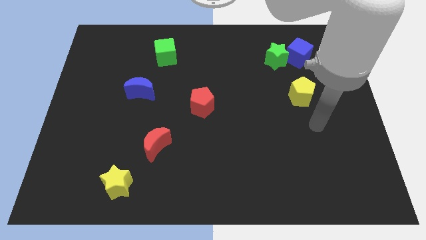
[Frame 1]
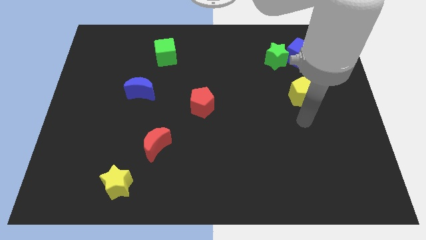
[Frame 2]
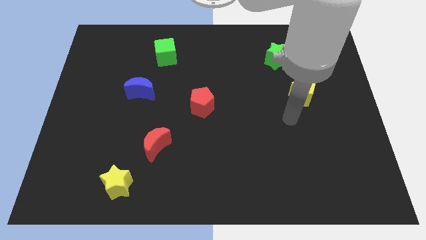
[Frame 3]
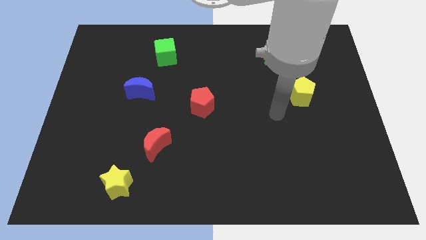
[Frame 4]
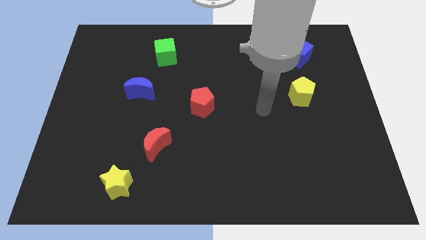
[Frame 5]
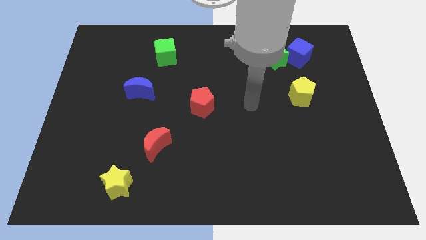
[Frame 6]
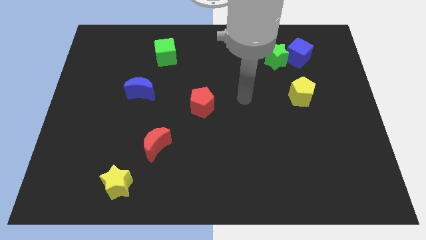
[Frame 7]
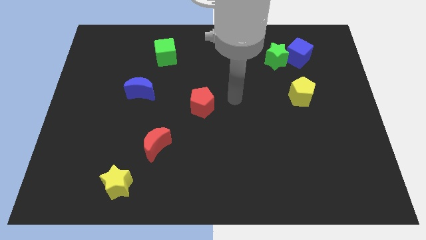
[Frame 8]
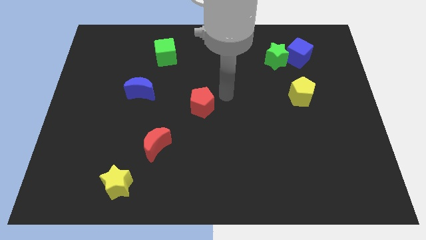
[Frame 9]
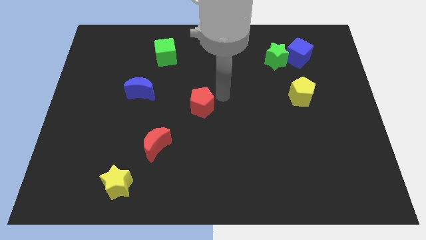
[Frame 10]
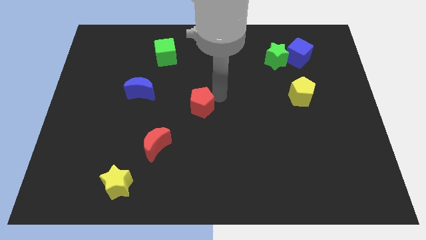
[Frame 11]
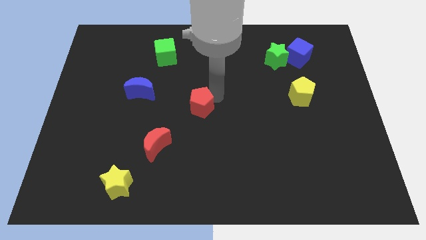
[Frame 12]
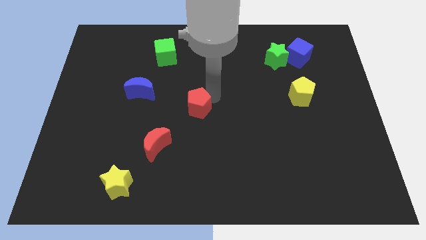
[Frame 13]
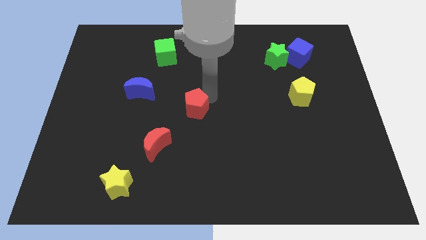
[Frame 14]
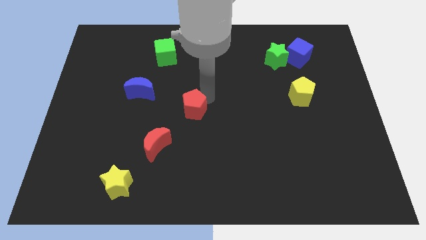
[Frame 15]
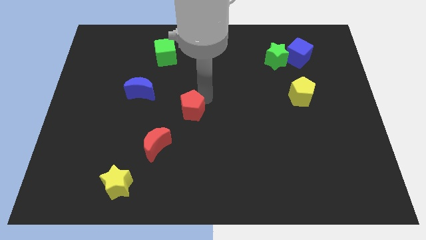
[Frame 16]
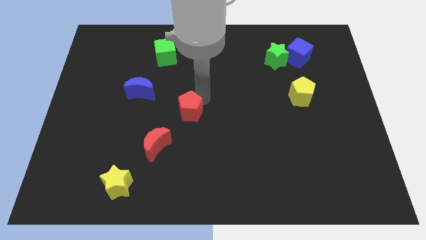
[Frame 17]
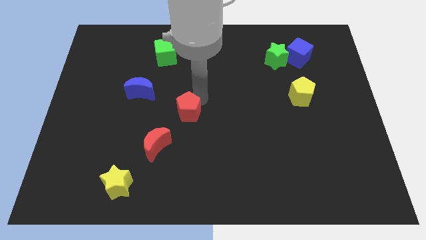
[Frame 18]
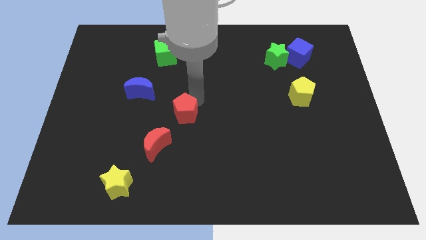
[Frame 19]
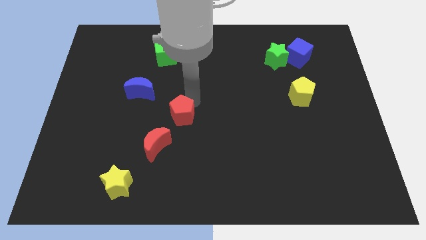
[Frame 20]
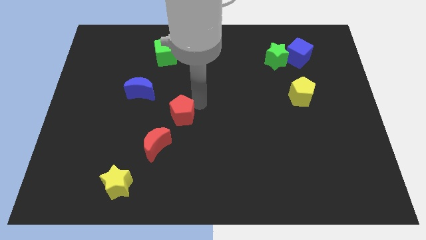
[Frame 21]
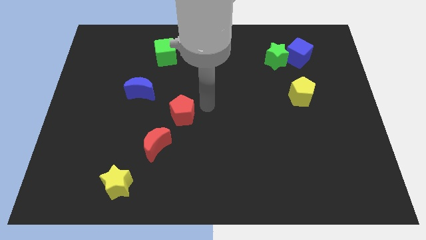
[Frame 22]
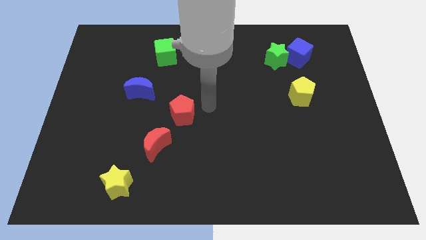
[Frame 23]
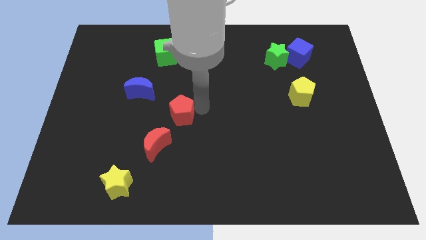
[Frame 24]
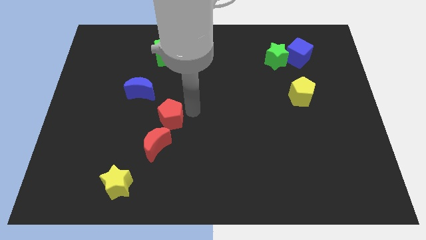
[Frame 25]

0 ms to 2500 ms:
slide the red pentagon a little bit downwards and then left

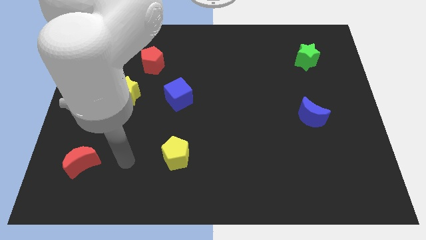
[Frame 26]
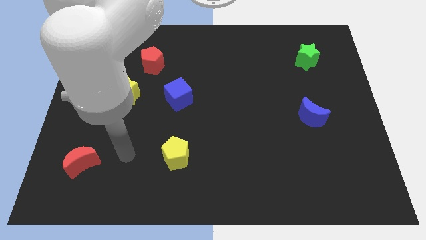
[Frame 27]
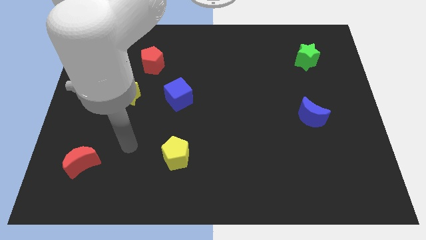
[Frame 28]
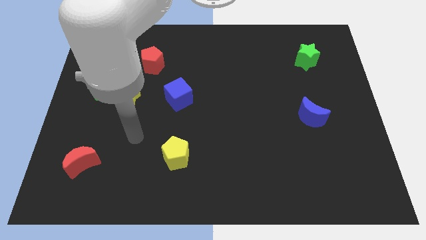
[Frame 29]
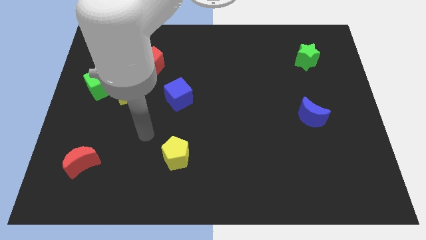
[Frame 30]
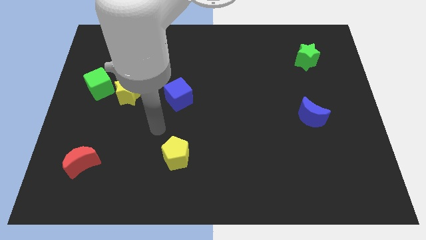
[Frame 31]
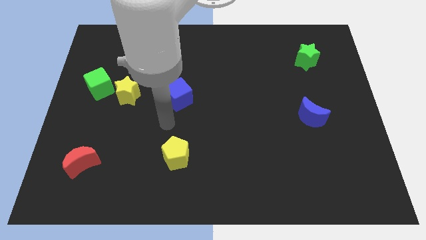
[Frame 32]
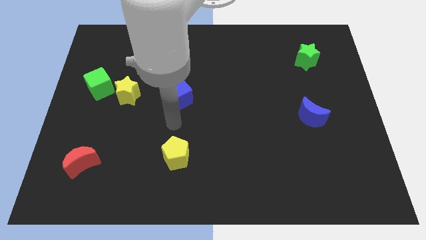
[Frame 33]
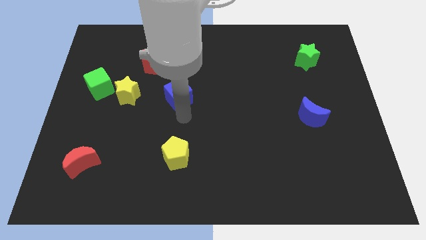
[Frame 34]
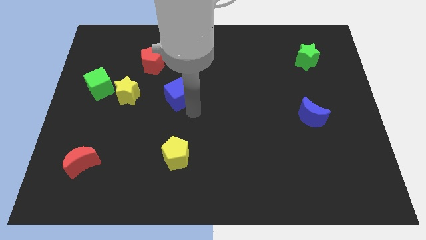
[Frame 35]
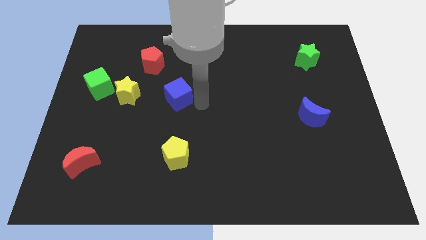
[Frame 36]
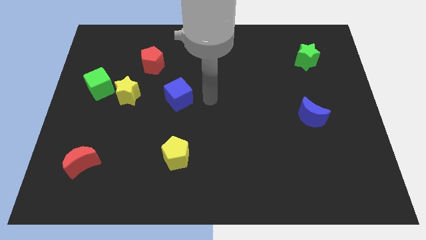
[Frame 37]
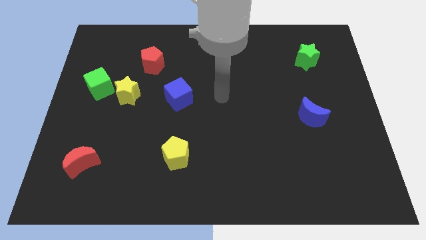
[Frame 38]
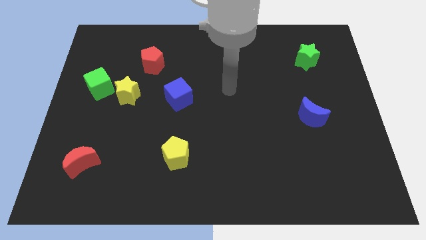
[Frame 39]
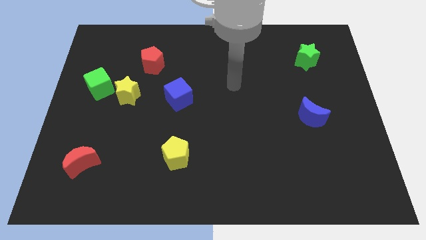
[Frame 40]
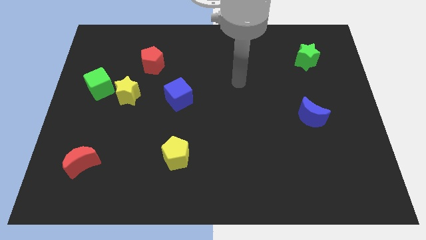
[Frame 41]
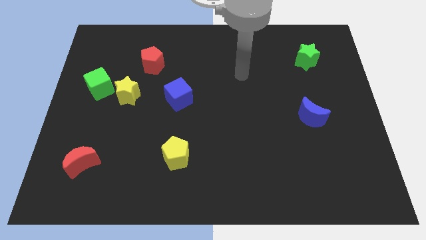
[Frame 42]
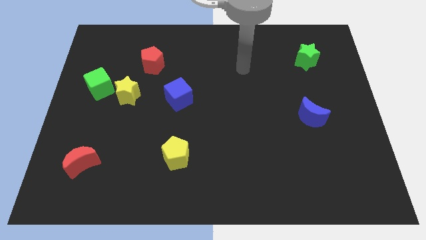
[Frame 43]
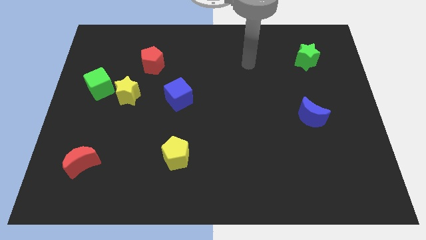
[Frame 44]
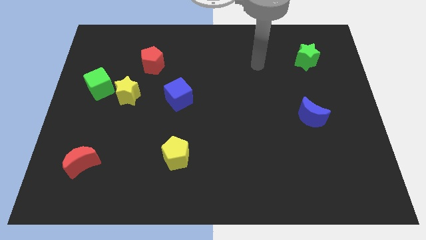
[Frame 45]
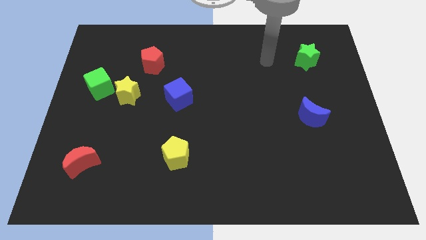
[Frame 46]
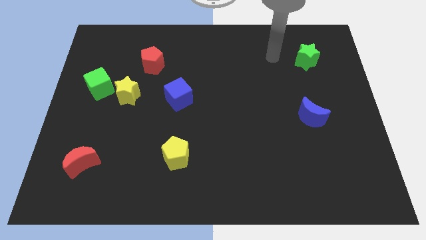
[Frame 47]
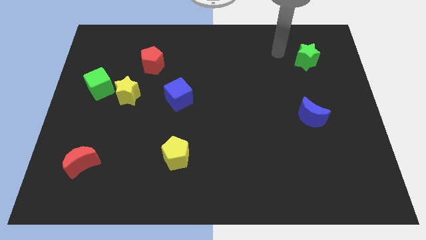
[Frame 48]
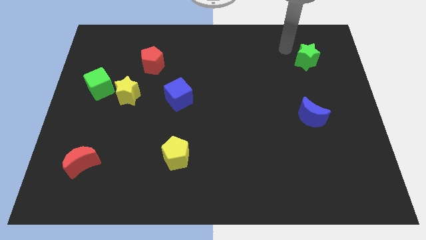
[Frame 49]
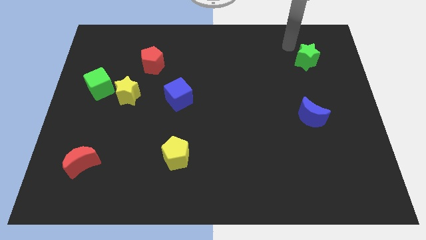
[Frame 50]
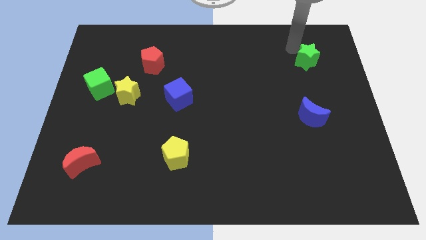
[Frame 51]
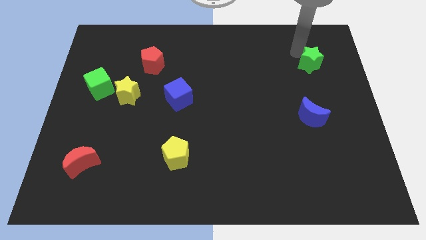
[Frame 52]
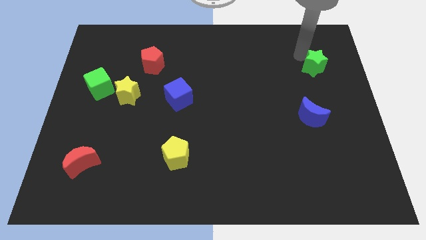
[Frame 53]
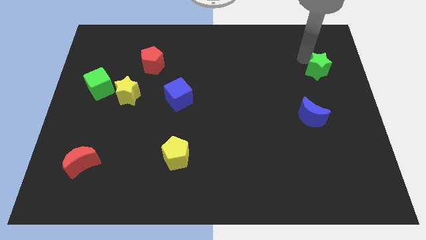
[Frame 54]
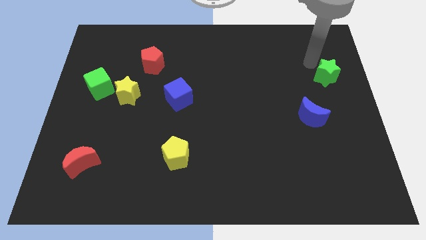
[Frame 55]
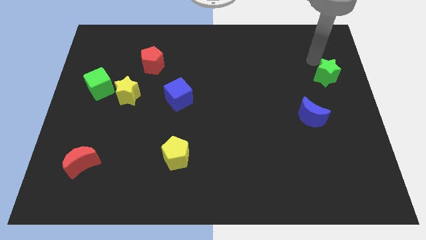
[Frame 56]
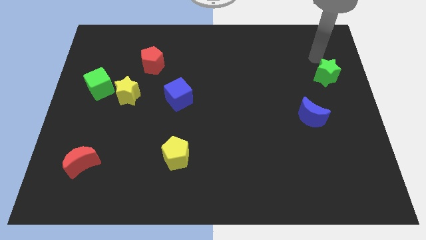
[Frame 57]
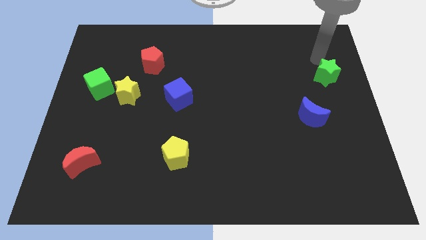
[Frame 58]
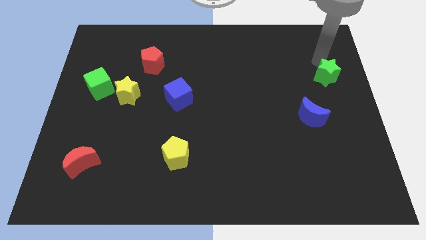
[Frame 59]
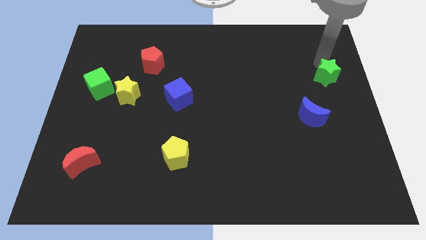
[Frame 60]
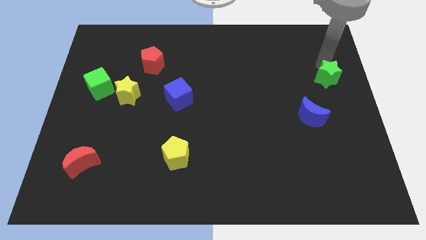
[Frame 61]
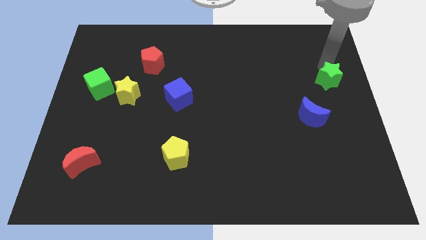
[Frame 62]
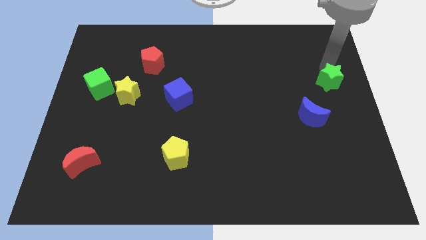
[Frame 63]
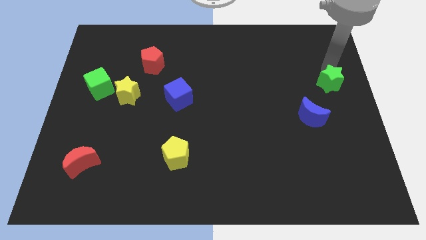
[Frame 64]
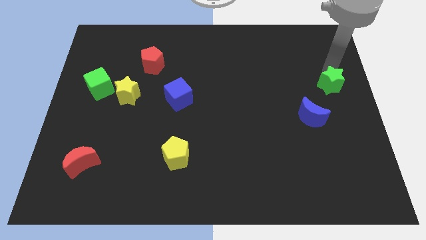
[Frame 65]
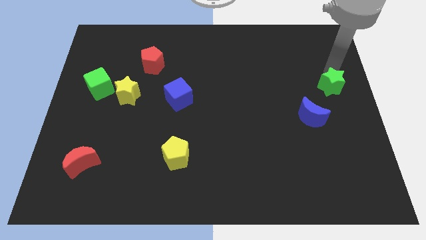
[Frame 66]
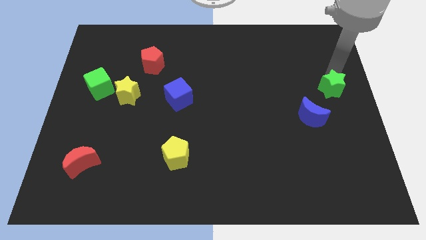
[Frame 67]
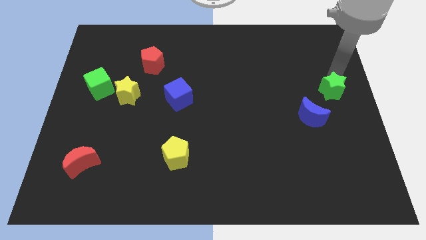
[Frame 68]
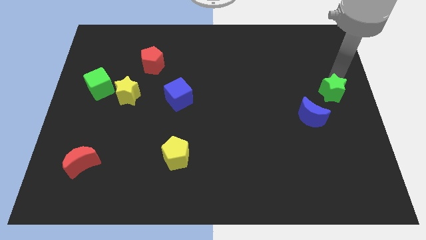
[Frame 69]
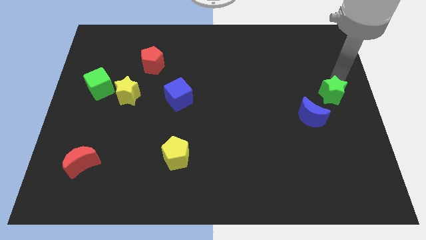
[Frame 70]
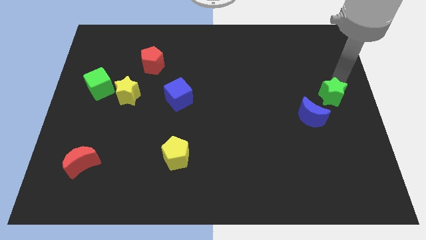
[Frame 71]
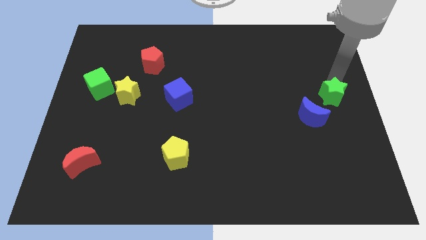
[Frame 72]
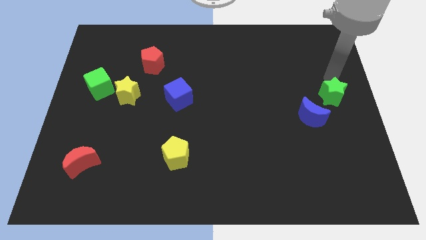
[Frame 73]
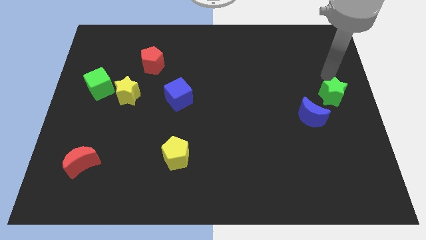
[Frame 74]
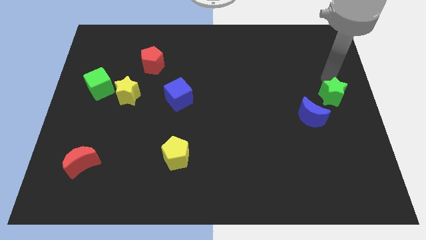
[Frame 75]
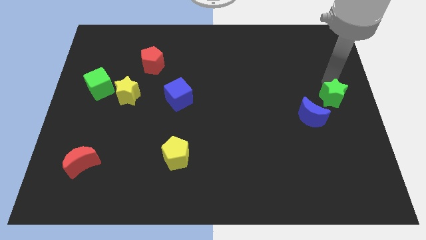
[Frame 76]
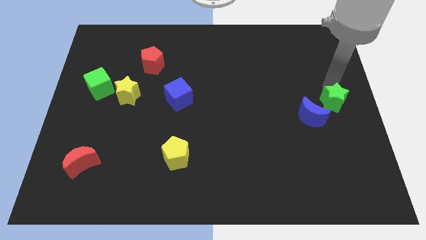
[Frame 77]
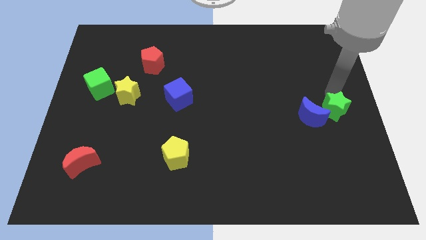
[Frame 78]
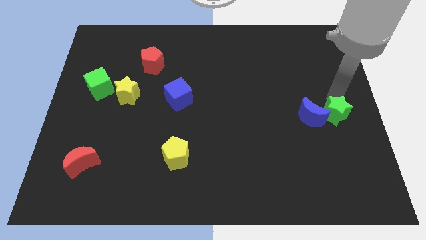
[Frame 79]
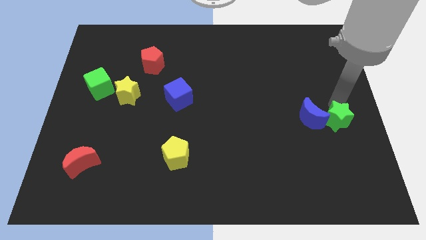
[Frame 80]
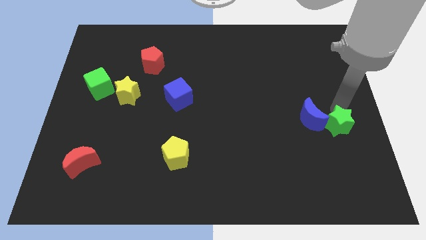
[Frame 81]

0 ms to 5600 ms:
move the green star downwards

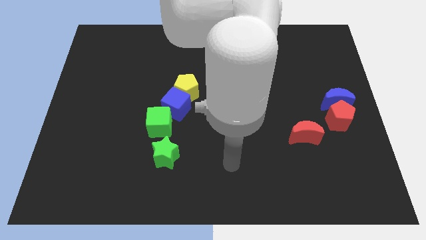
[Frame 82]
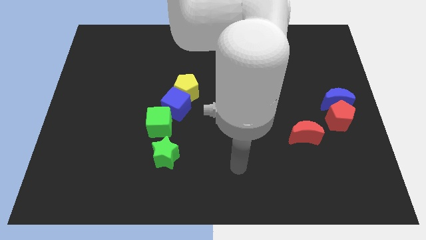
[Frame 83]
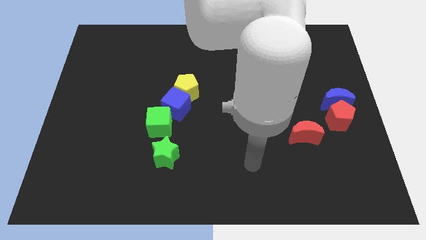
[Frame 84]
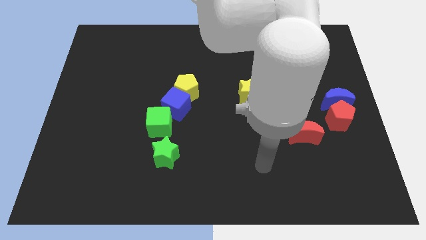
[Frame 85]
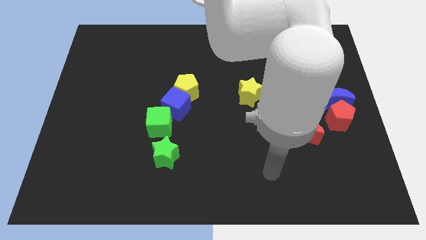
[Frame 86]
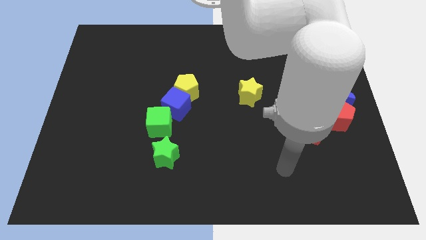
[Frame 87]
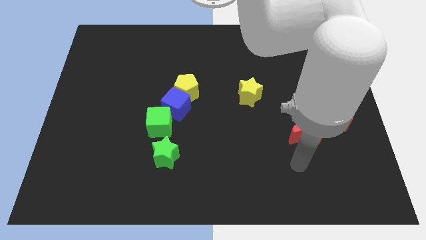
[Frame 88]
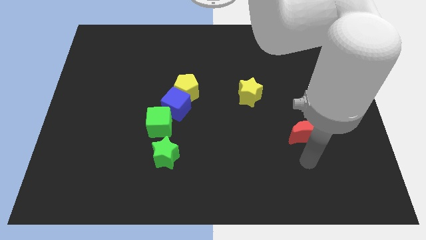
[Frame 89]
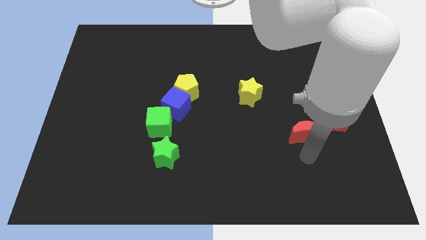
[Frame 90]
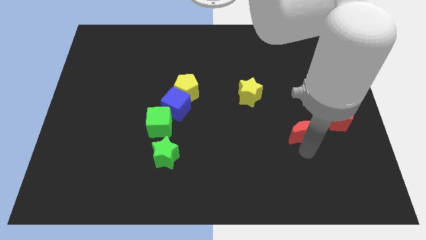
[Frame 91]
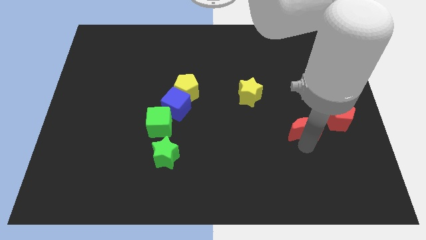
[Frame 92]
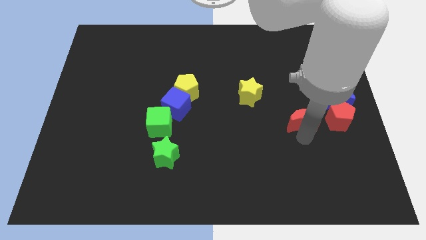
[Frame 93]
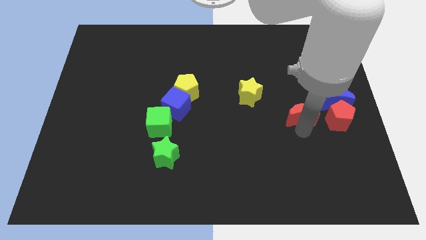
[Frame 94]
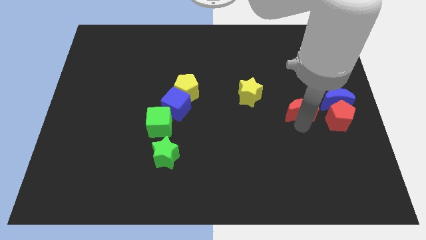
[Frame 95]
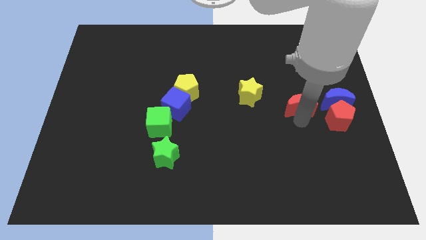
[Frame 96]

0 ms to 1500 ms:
slide the red moon upwards a little
